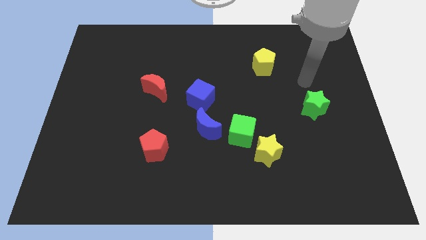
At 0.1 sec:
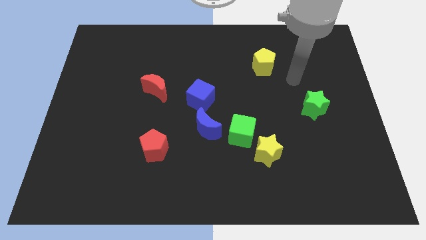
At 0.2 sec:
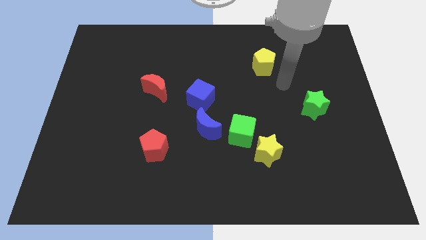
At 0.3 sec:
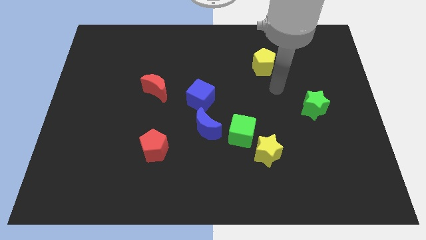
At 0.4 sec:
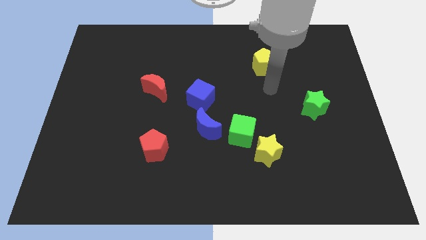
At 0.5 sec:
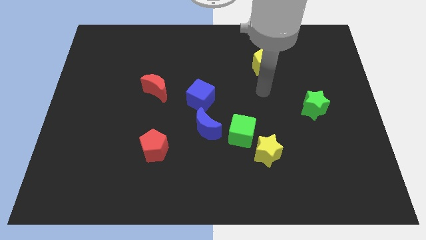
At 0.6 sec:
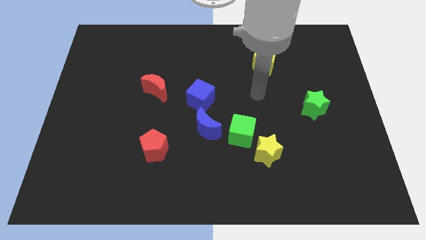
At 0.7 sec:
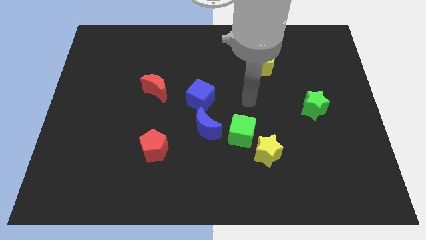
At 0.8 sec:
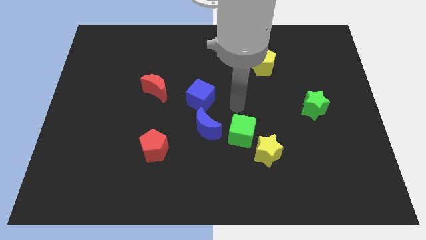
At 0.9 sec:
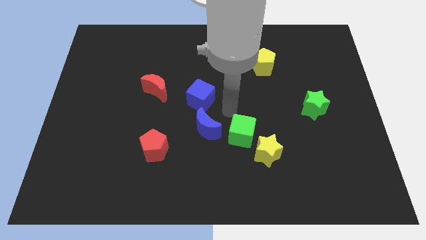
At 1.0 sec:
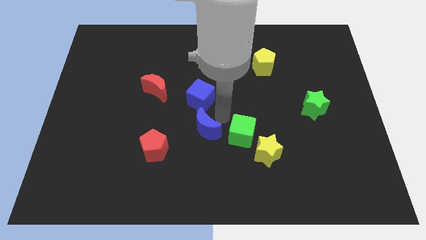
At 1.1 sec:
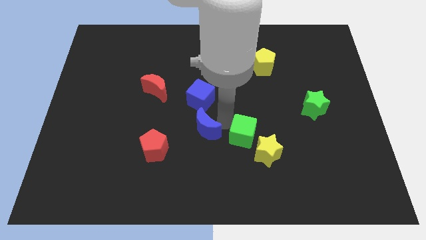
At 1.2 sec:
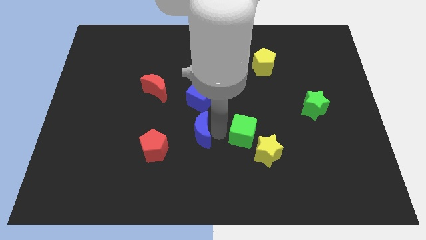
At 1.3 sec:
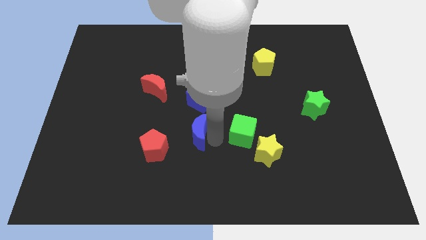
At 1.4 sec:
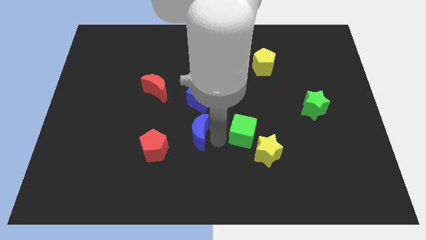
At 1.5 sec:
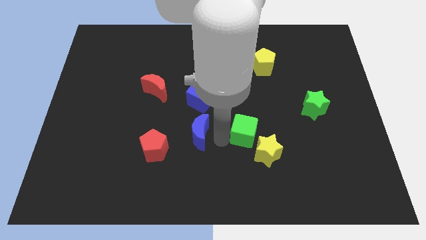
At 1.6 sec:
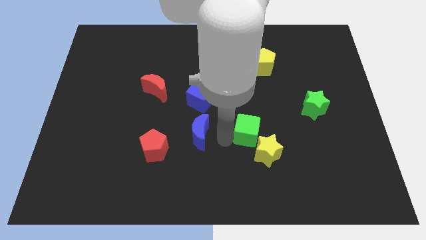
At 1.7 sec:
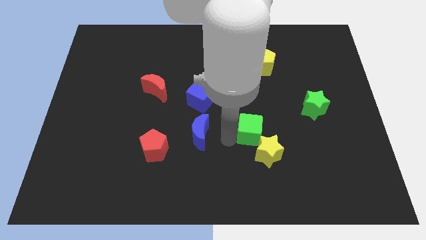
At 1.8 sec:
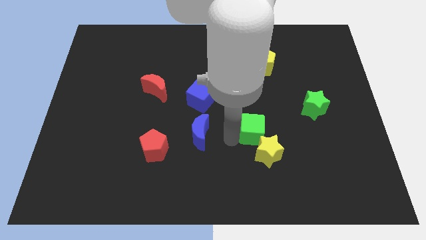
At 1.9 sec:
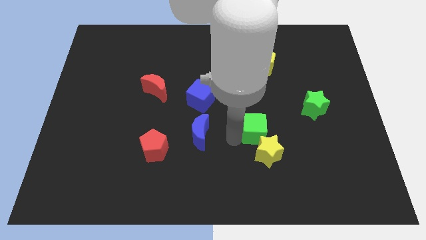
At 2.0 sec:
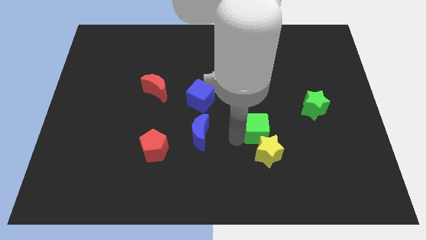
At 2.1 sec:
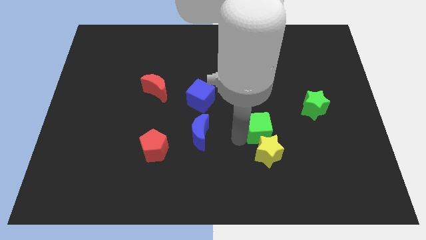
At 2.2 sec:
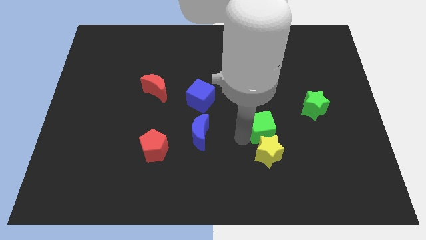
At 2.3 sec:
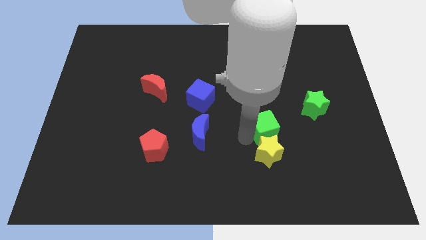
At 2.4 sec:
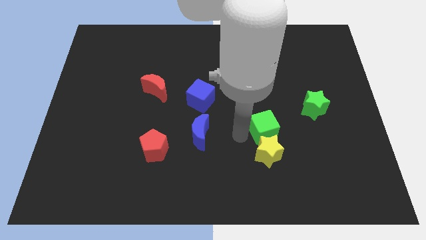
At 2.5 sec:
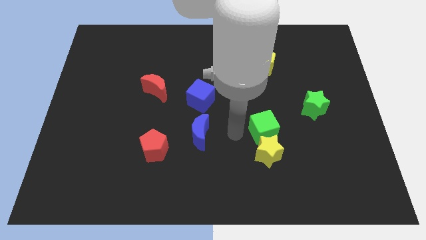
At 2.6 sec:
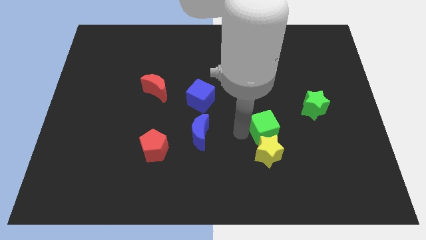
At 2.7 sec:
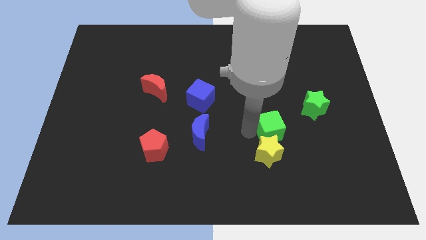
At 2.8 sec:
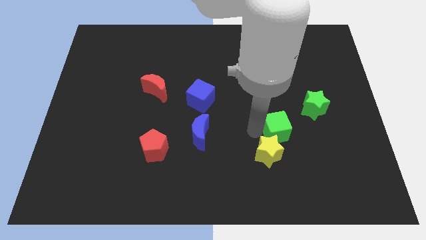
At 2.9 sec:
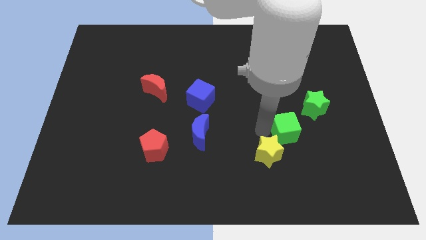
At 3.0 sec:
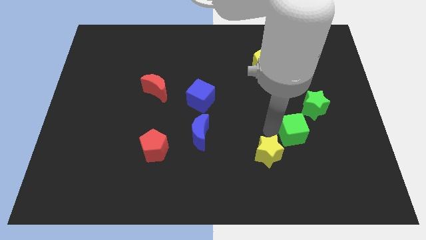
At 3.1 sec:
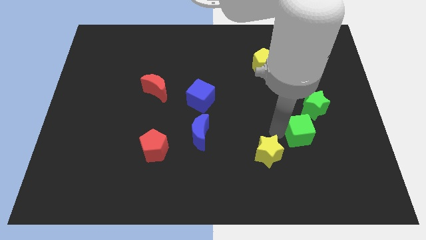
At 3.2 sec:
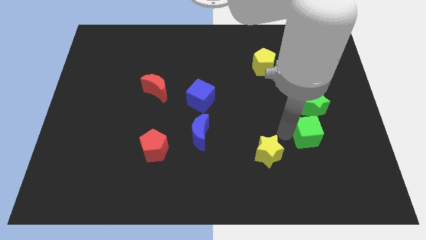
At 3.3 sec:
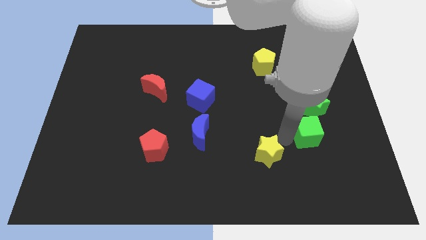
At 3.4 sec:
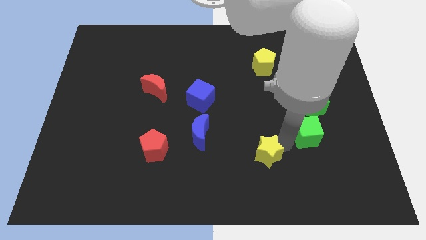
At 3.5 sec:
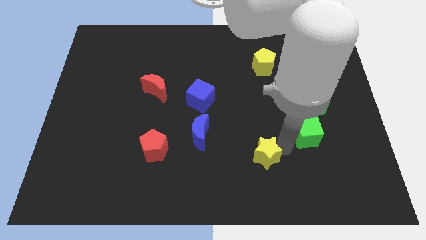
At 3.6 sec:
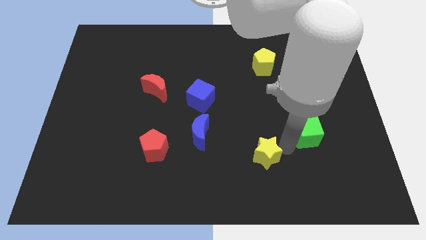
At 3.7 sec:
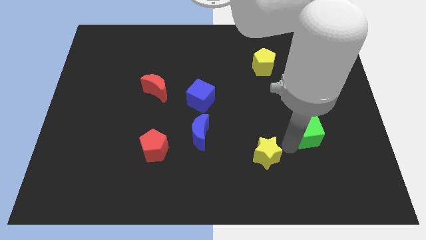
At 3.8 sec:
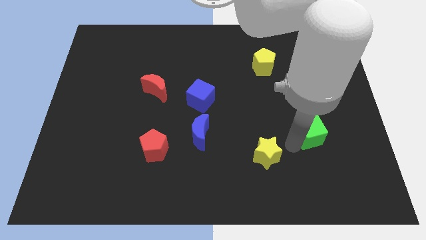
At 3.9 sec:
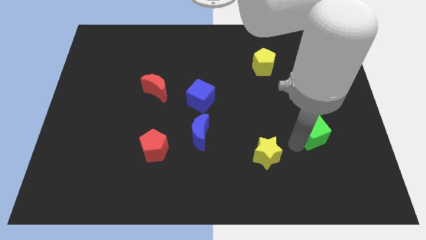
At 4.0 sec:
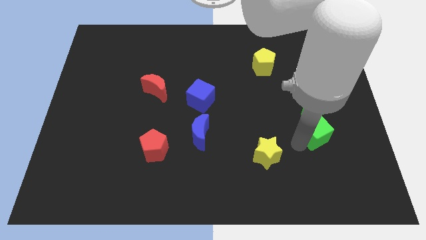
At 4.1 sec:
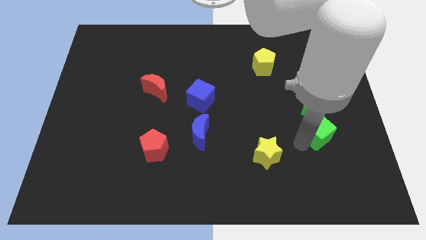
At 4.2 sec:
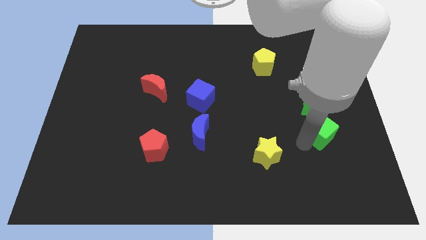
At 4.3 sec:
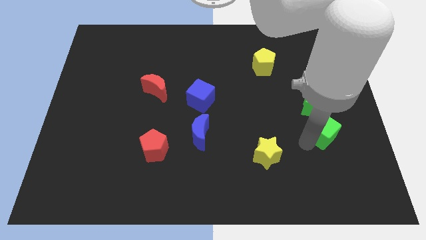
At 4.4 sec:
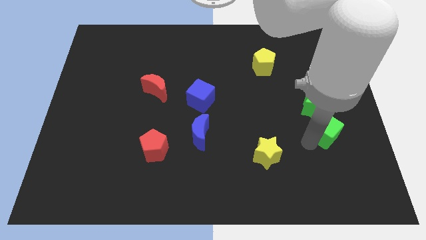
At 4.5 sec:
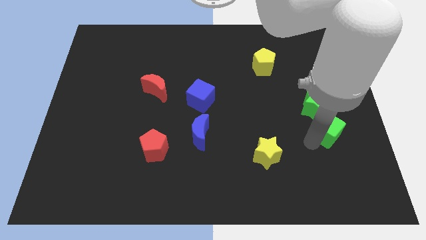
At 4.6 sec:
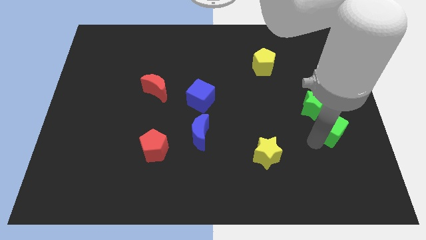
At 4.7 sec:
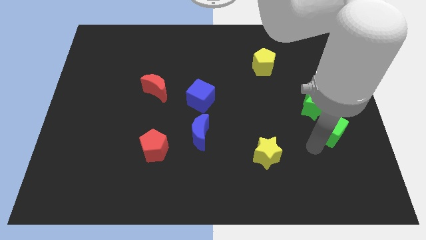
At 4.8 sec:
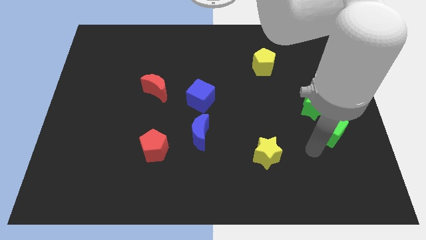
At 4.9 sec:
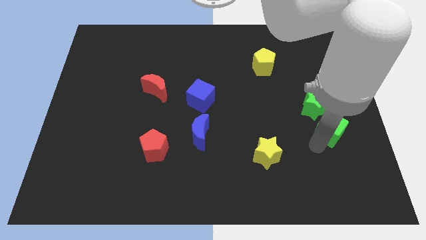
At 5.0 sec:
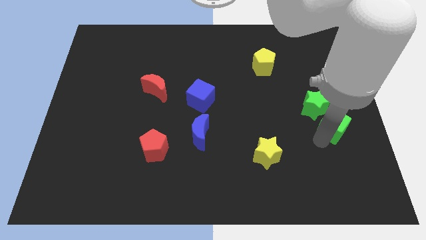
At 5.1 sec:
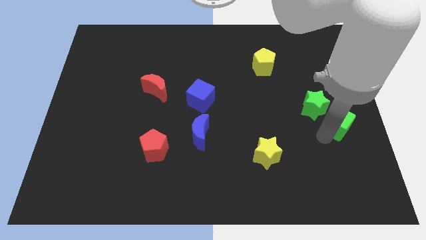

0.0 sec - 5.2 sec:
move the green cube to the right side

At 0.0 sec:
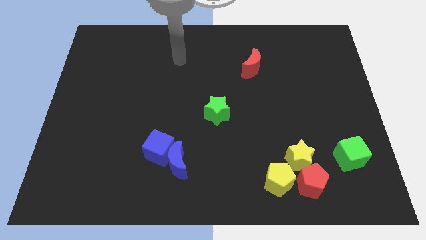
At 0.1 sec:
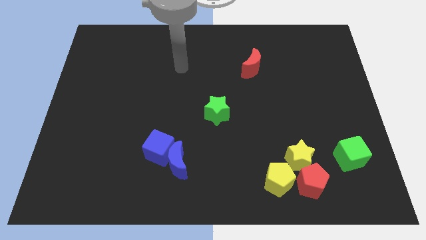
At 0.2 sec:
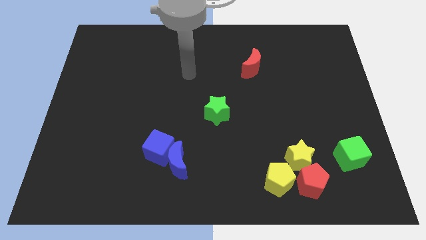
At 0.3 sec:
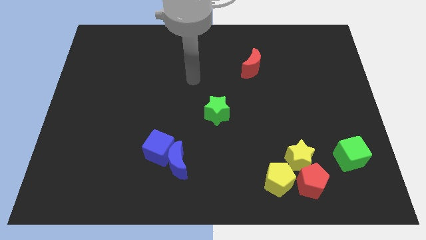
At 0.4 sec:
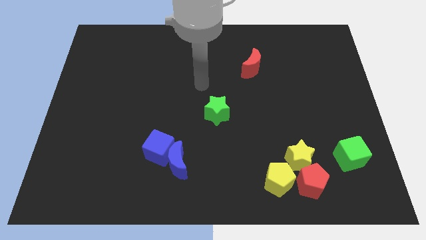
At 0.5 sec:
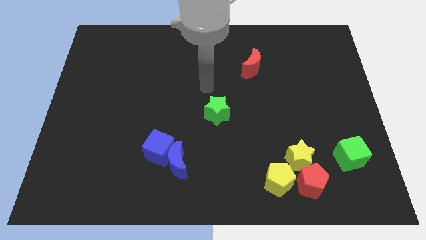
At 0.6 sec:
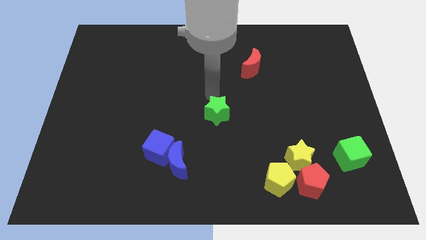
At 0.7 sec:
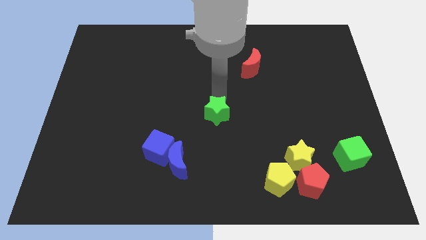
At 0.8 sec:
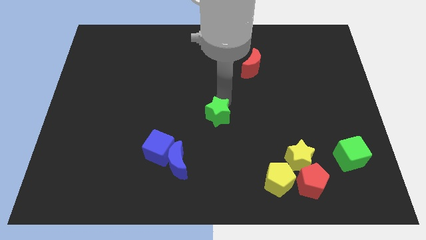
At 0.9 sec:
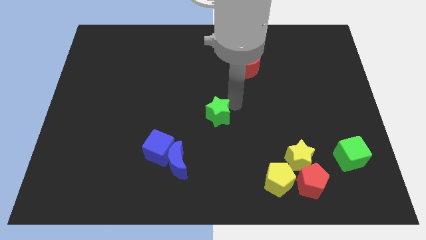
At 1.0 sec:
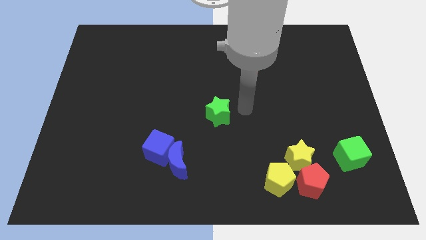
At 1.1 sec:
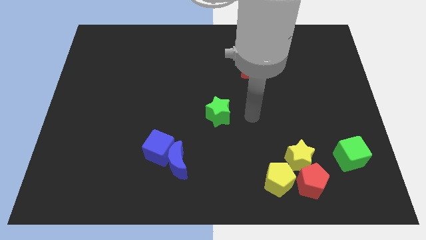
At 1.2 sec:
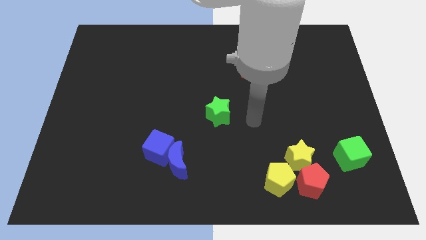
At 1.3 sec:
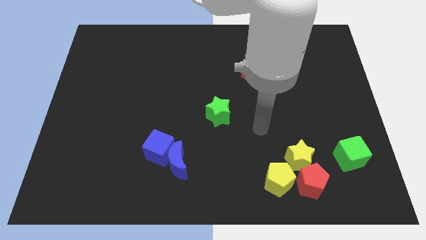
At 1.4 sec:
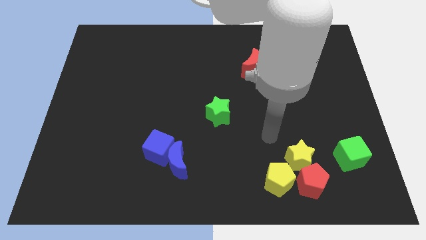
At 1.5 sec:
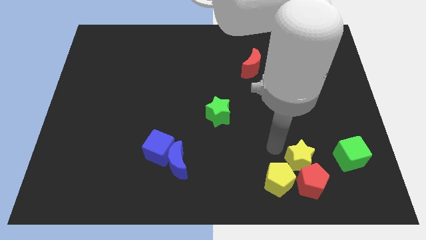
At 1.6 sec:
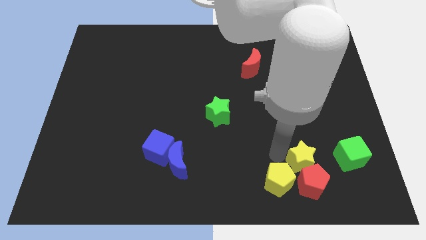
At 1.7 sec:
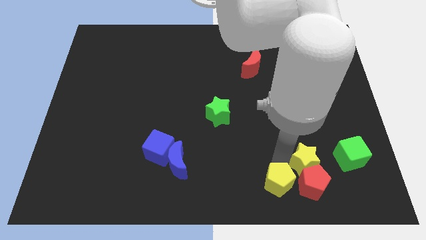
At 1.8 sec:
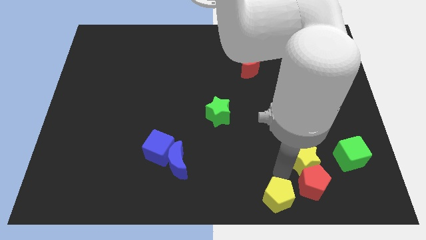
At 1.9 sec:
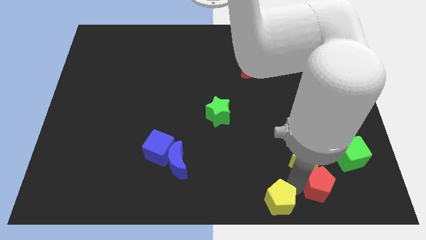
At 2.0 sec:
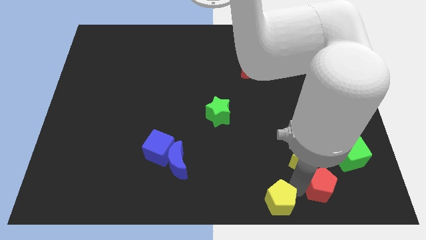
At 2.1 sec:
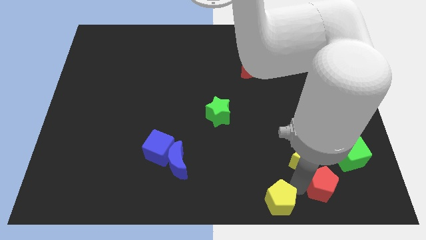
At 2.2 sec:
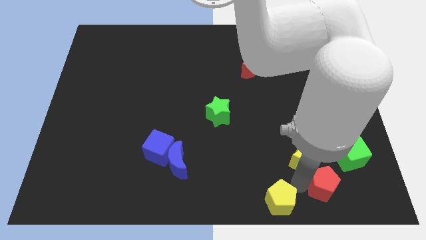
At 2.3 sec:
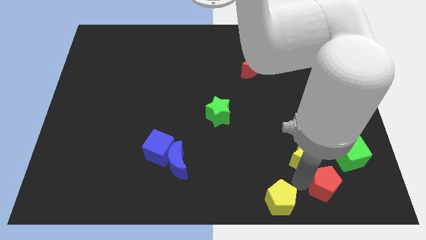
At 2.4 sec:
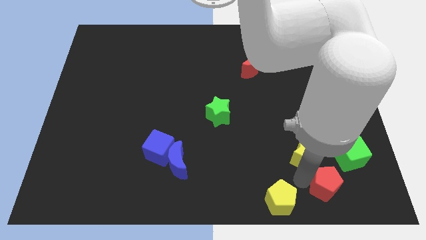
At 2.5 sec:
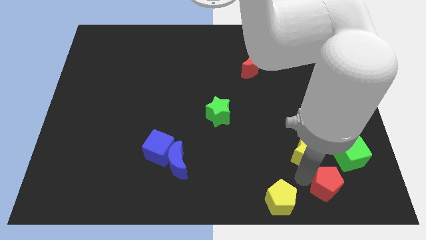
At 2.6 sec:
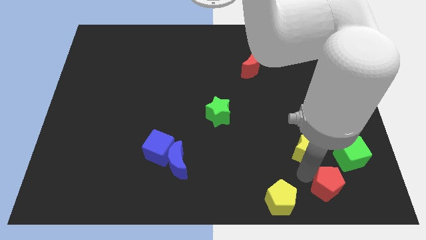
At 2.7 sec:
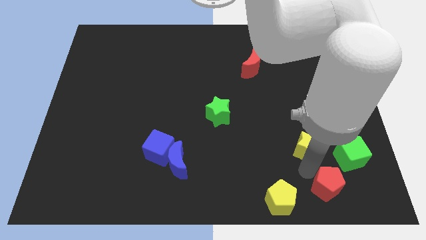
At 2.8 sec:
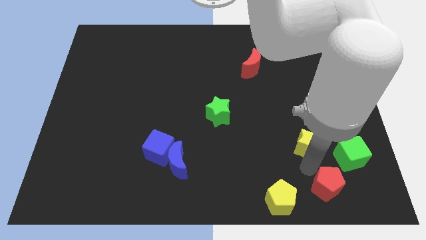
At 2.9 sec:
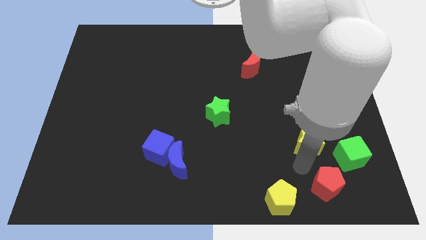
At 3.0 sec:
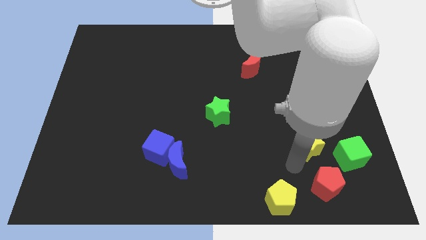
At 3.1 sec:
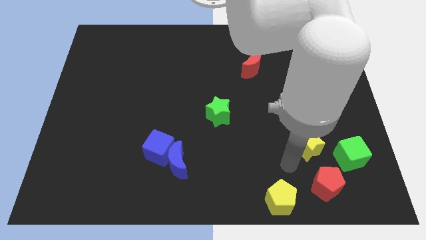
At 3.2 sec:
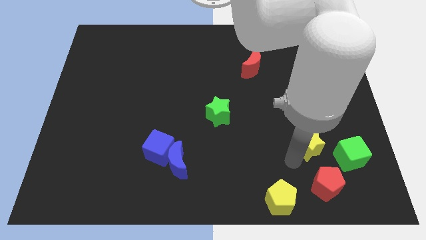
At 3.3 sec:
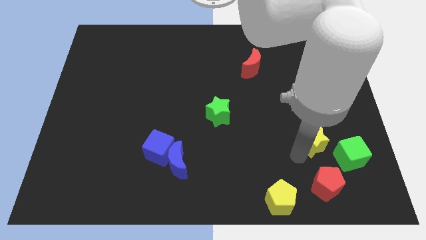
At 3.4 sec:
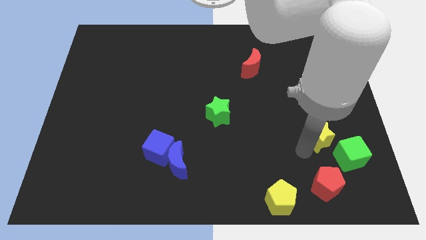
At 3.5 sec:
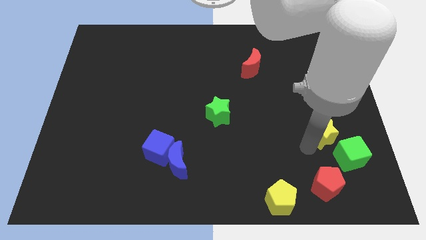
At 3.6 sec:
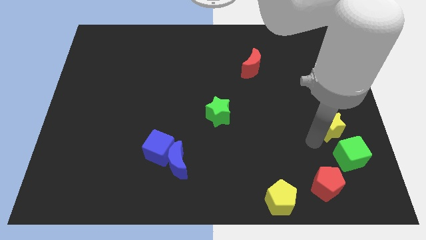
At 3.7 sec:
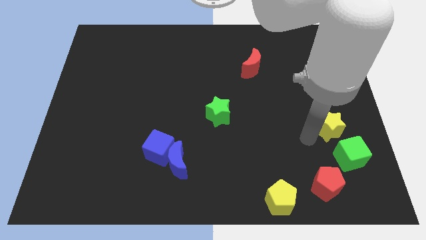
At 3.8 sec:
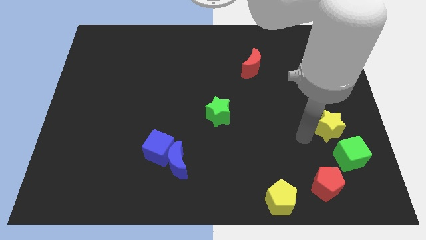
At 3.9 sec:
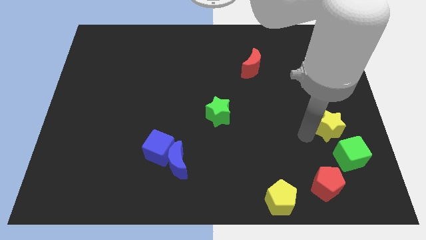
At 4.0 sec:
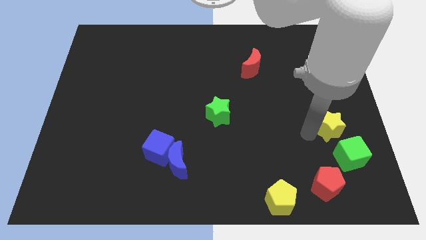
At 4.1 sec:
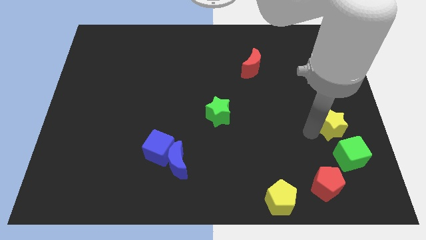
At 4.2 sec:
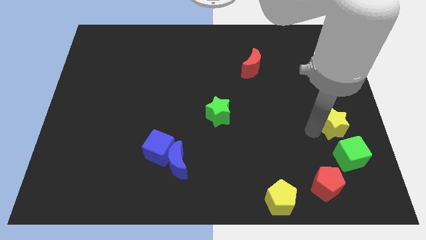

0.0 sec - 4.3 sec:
put the yellow star to the right side
